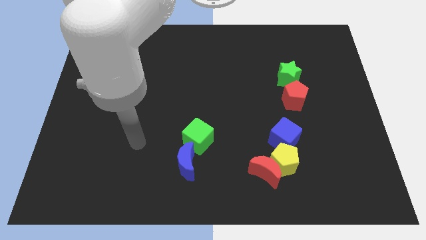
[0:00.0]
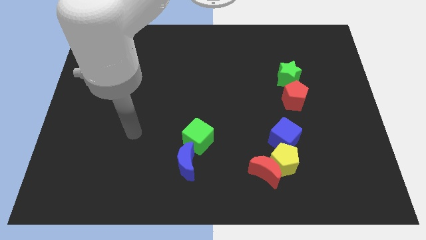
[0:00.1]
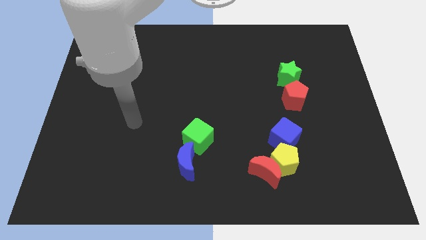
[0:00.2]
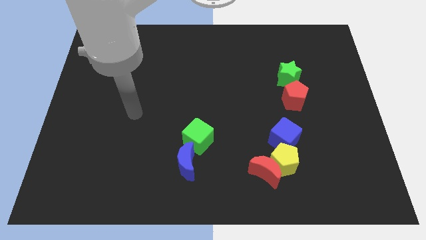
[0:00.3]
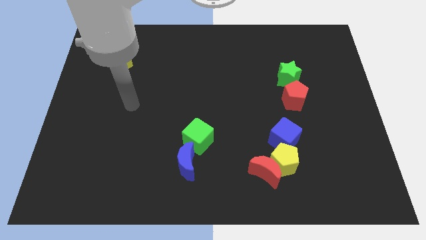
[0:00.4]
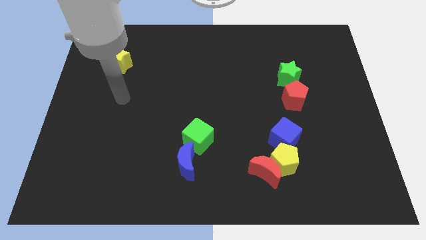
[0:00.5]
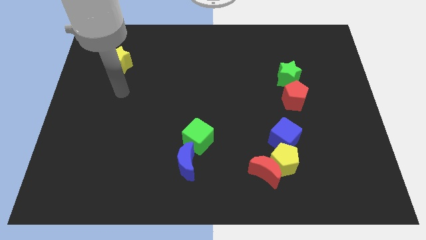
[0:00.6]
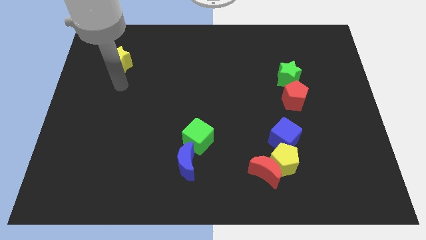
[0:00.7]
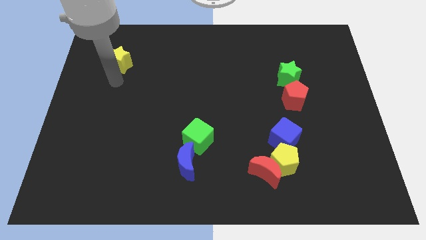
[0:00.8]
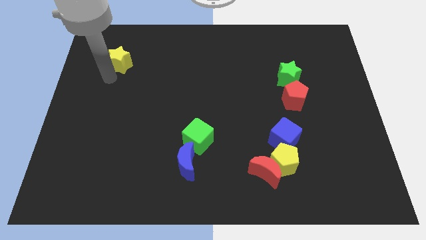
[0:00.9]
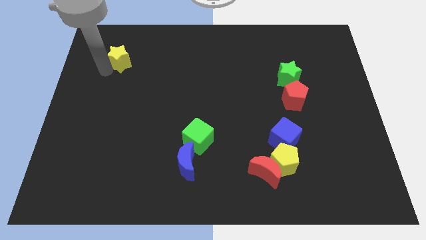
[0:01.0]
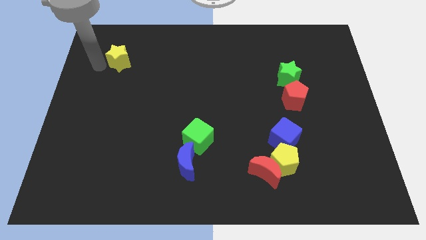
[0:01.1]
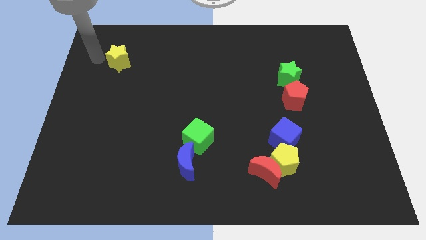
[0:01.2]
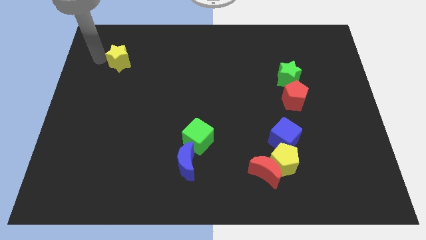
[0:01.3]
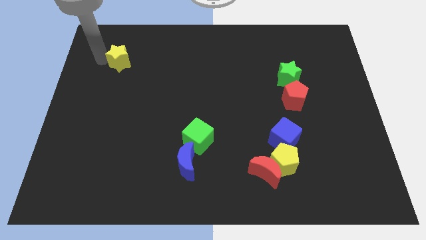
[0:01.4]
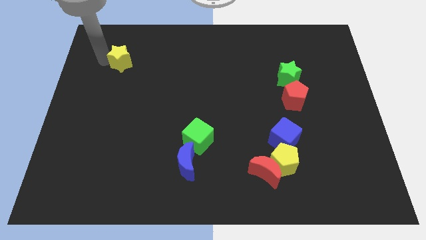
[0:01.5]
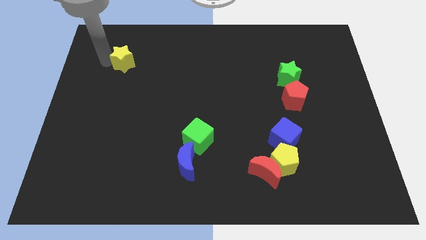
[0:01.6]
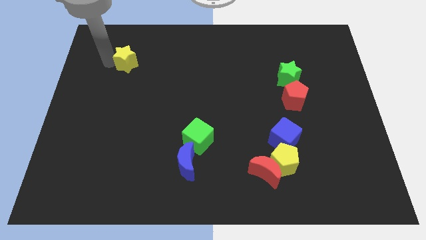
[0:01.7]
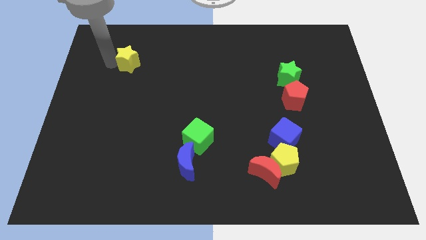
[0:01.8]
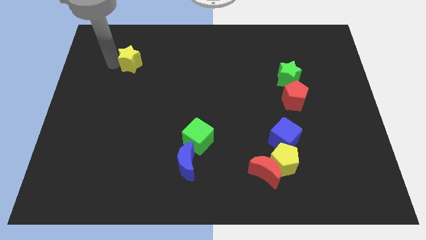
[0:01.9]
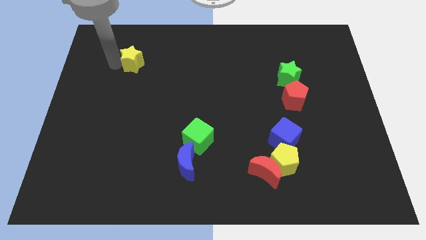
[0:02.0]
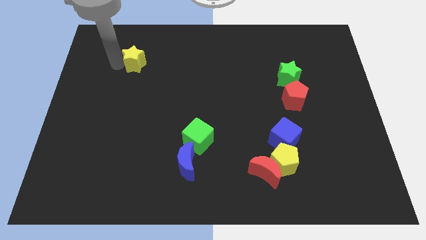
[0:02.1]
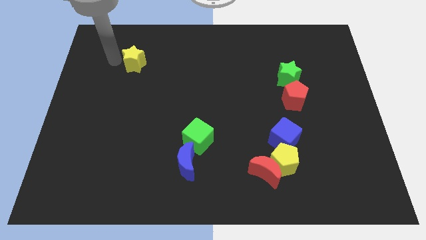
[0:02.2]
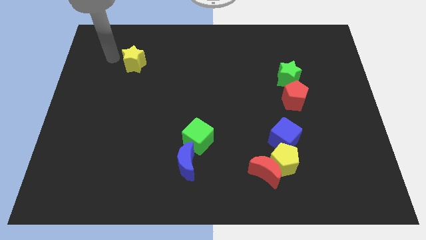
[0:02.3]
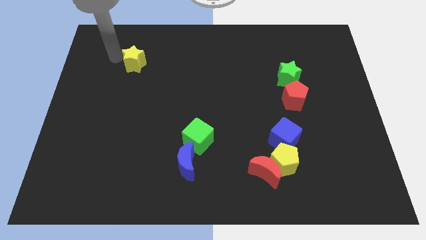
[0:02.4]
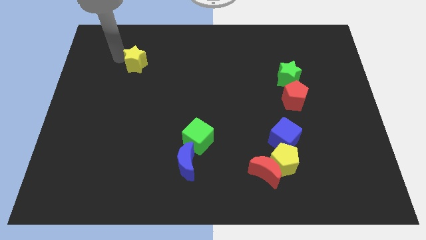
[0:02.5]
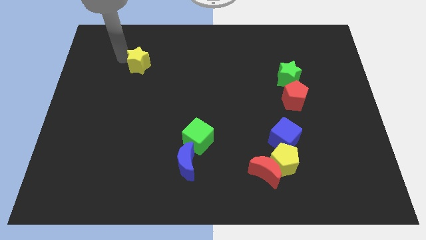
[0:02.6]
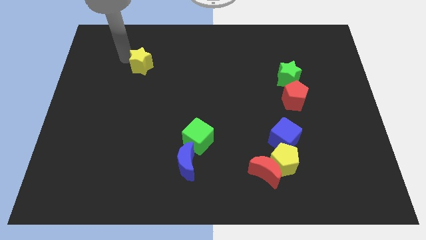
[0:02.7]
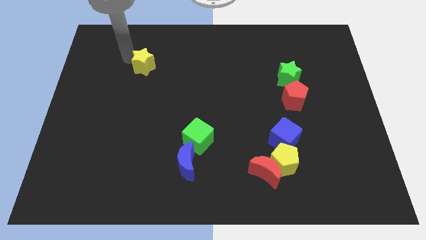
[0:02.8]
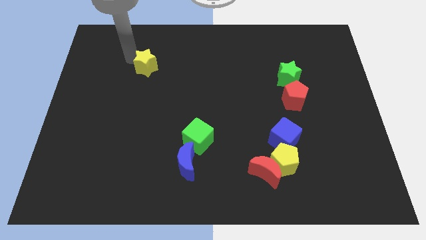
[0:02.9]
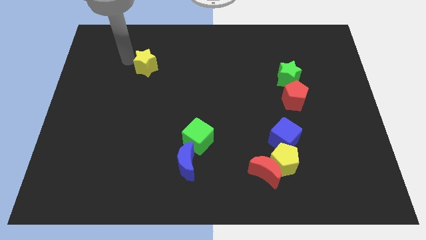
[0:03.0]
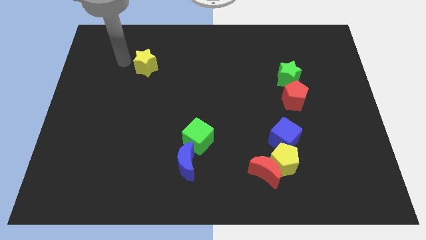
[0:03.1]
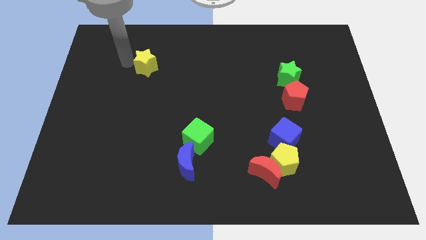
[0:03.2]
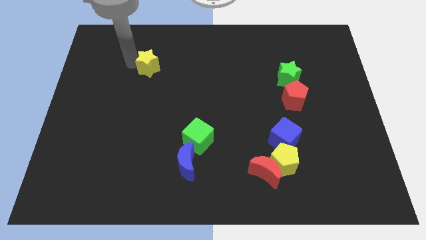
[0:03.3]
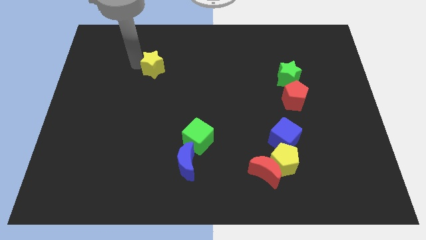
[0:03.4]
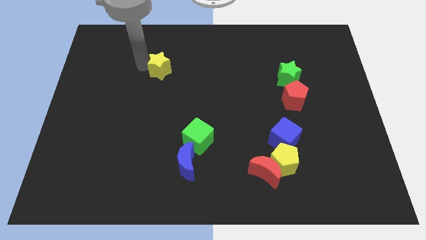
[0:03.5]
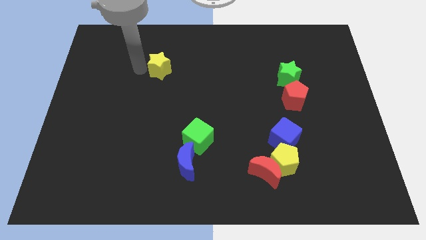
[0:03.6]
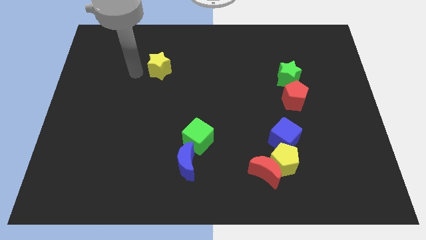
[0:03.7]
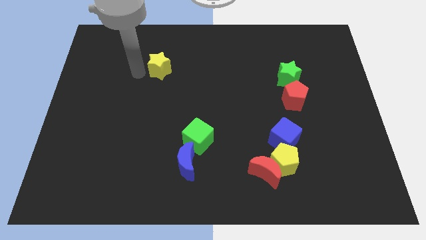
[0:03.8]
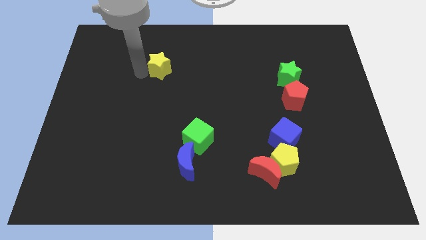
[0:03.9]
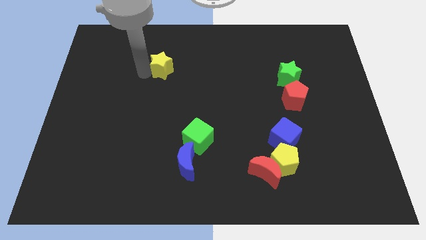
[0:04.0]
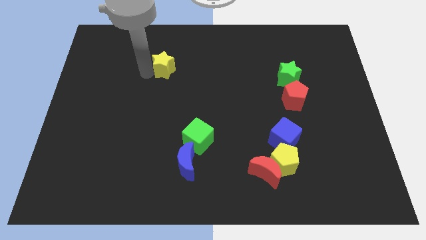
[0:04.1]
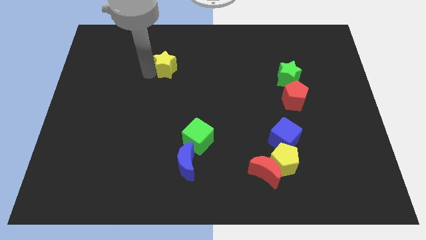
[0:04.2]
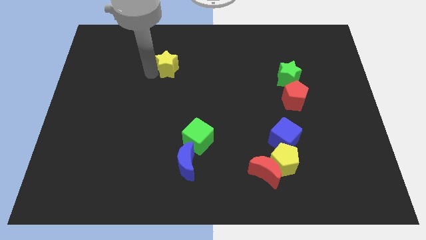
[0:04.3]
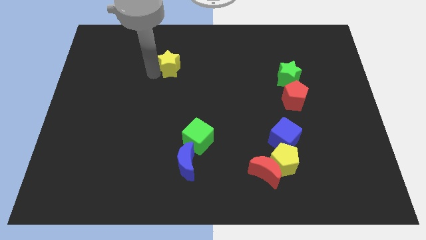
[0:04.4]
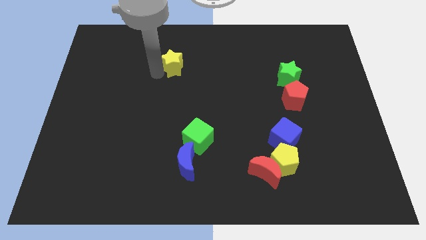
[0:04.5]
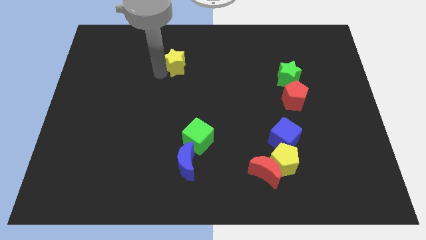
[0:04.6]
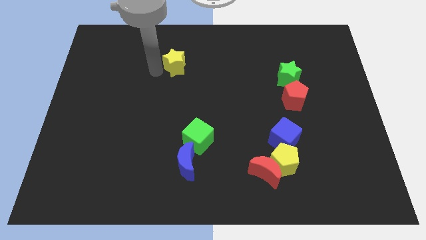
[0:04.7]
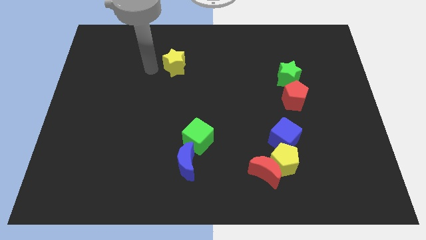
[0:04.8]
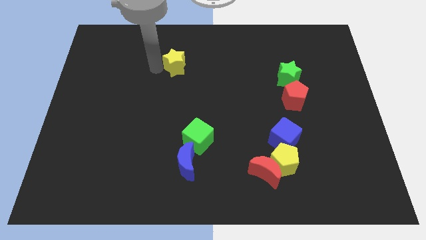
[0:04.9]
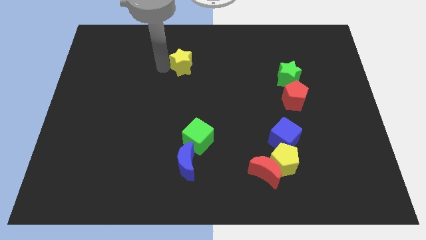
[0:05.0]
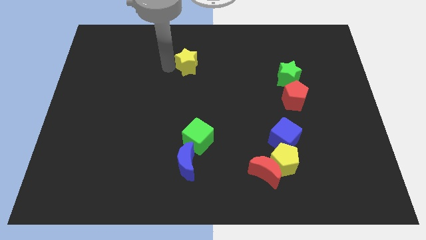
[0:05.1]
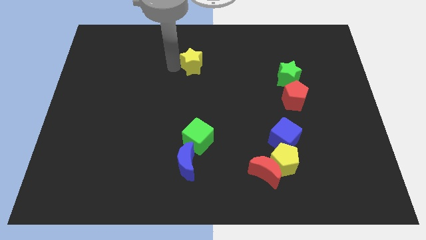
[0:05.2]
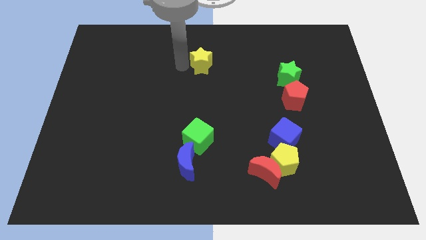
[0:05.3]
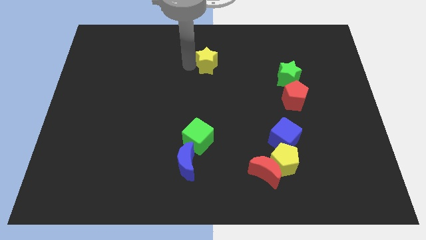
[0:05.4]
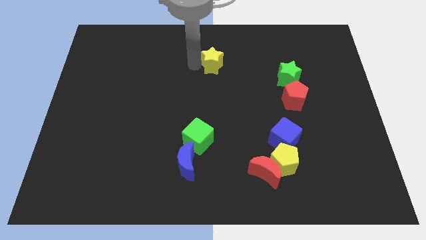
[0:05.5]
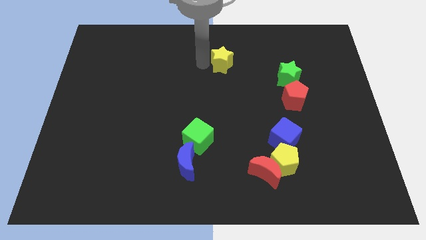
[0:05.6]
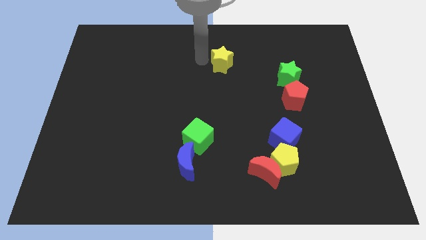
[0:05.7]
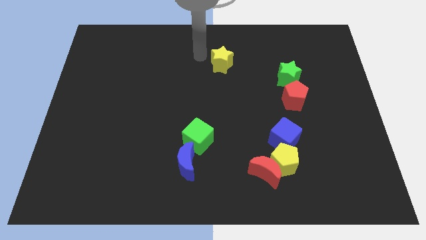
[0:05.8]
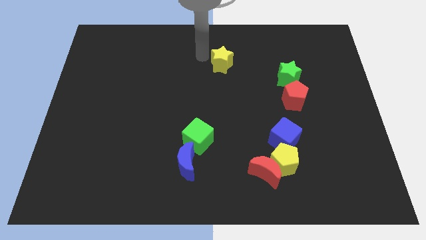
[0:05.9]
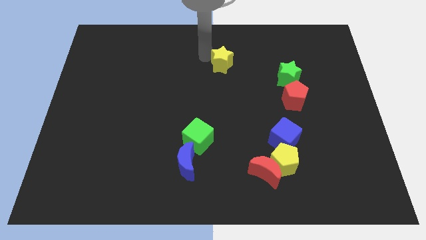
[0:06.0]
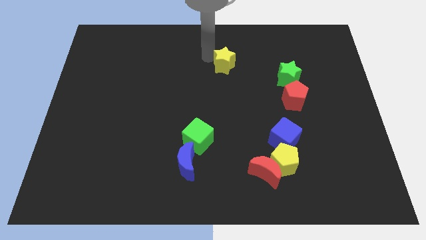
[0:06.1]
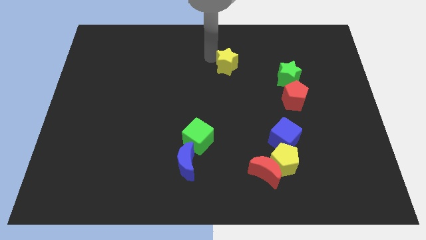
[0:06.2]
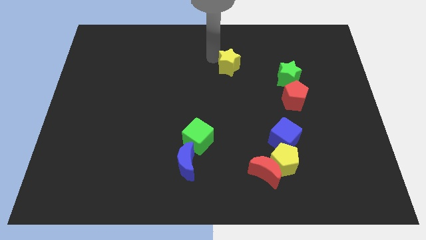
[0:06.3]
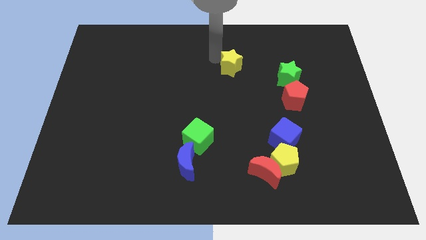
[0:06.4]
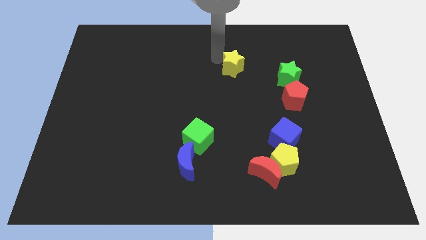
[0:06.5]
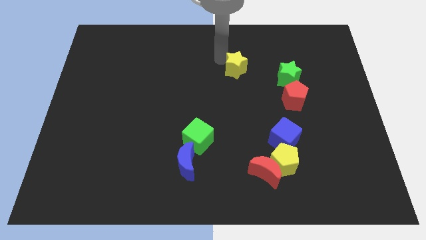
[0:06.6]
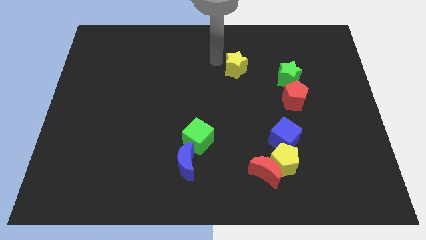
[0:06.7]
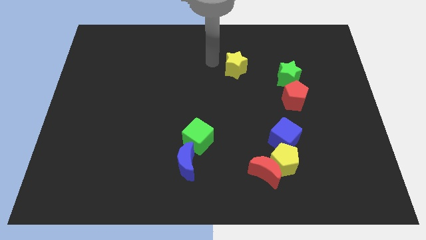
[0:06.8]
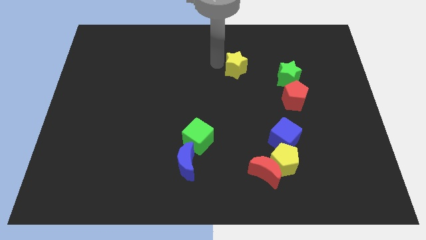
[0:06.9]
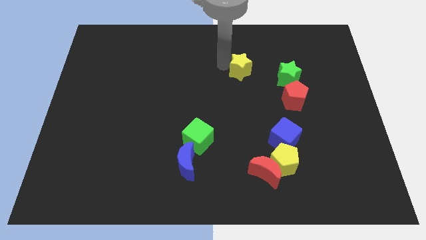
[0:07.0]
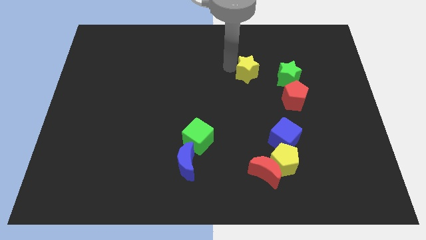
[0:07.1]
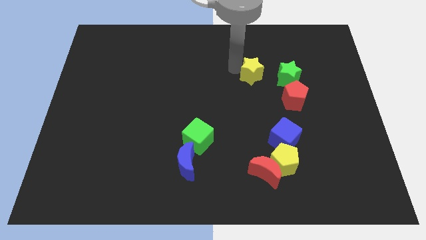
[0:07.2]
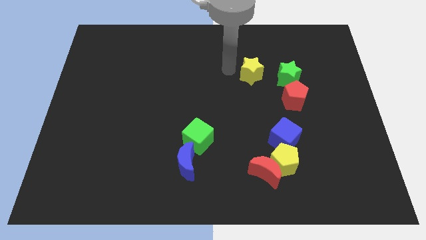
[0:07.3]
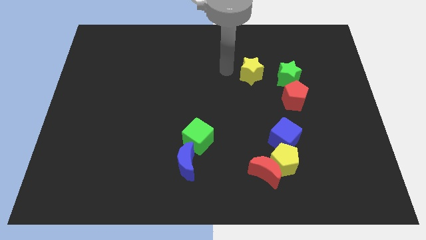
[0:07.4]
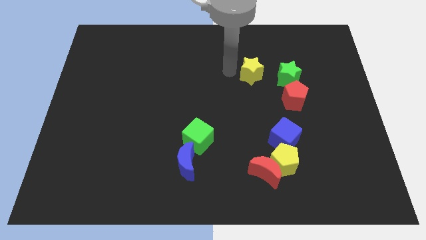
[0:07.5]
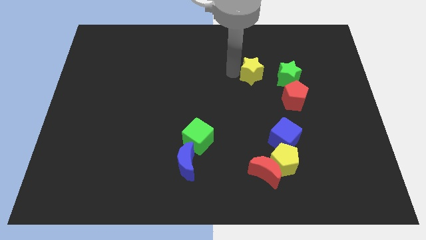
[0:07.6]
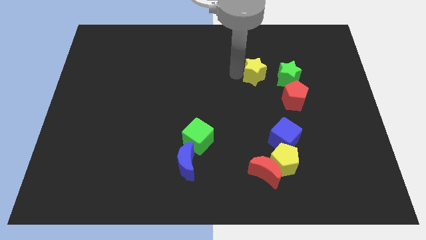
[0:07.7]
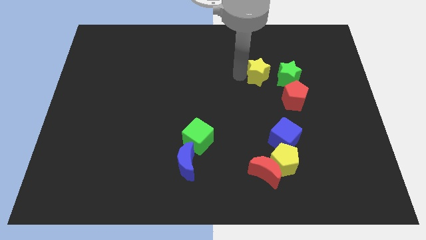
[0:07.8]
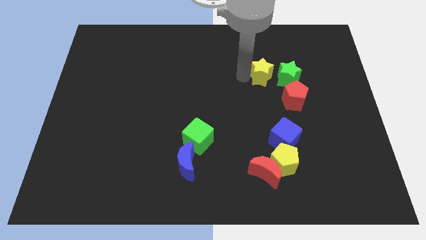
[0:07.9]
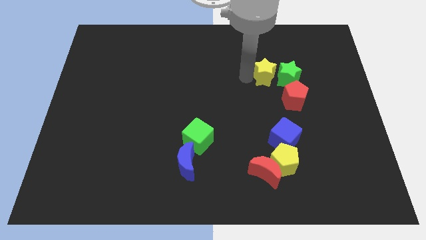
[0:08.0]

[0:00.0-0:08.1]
put the yellow star to the green star
